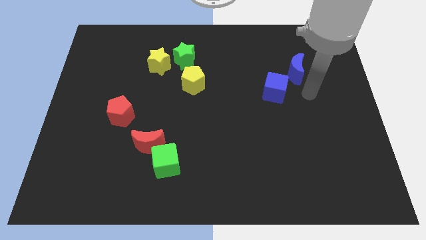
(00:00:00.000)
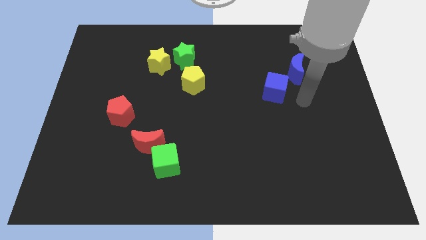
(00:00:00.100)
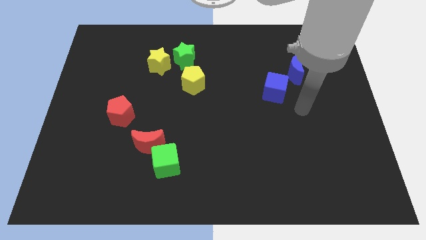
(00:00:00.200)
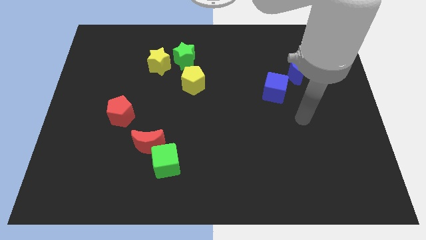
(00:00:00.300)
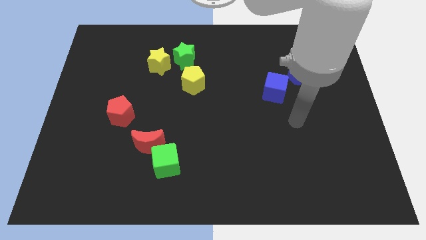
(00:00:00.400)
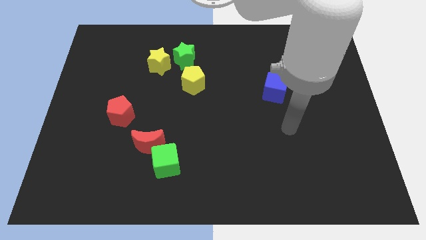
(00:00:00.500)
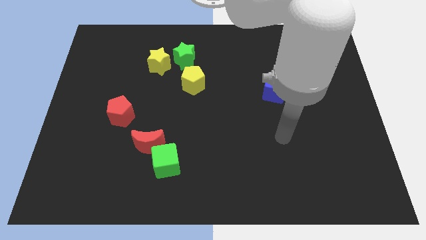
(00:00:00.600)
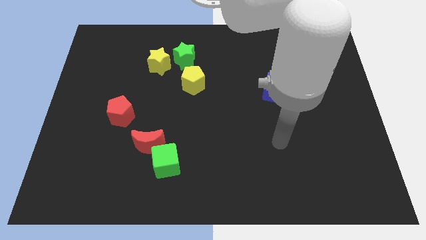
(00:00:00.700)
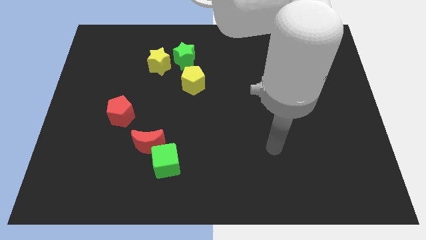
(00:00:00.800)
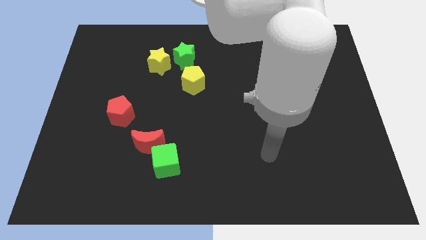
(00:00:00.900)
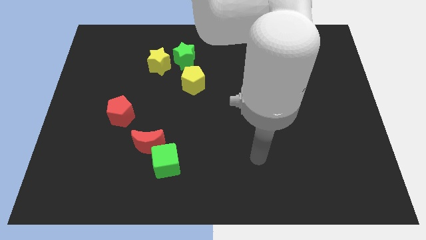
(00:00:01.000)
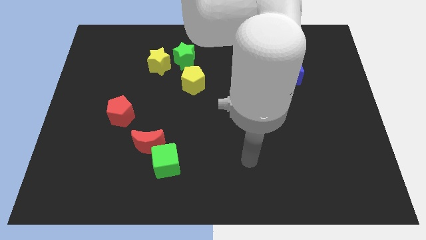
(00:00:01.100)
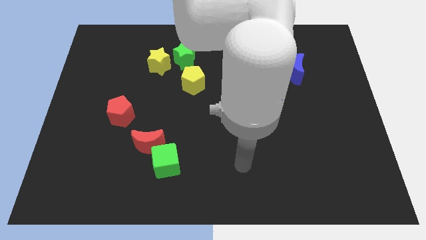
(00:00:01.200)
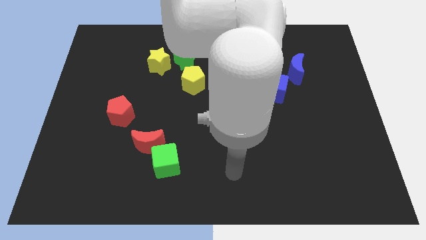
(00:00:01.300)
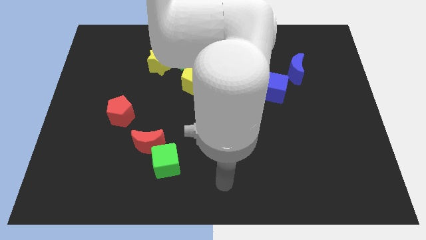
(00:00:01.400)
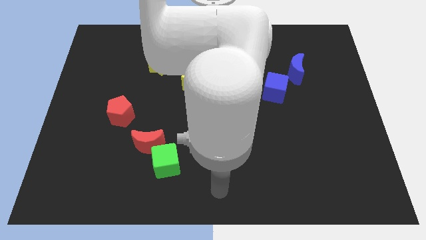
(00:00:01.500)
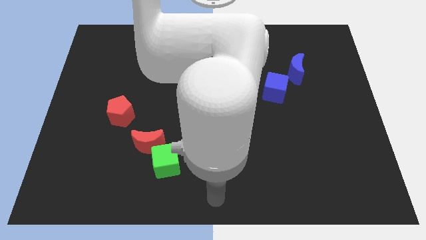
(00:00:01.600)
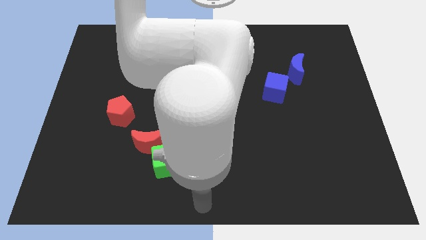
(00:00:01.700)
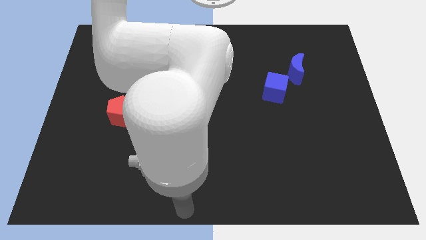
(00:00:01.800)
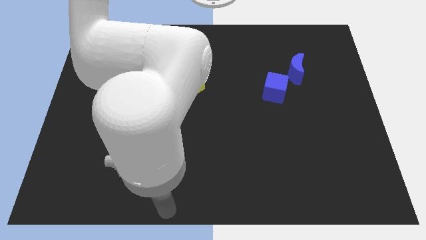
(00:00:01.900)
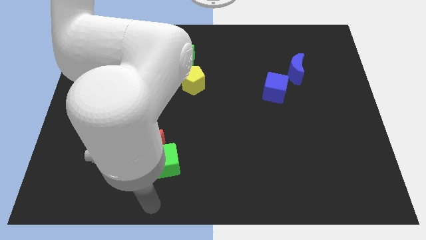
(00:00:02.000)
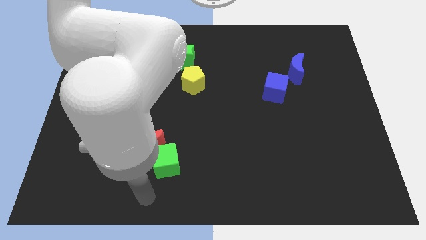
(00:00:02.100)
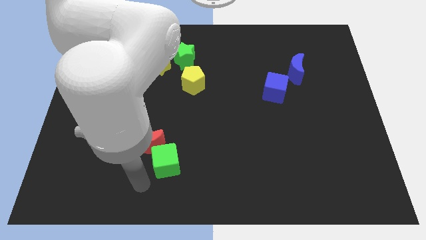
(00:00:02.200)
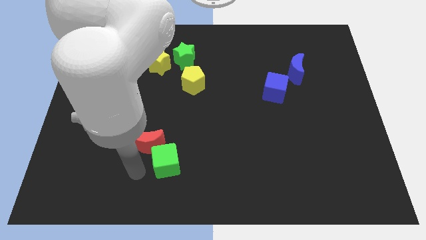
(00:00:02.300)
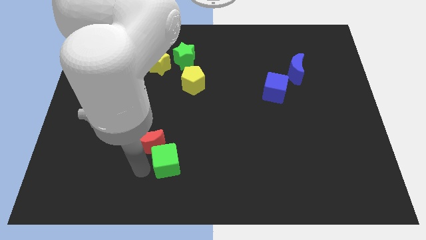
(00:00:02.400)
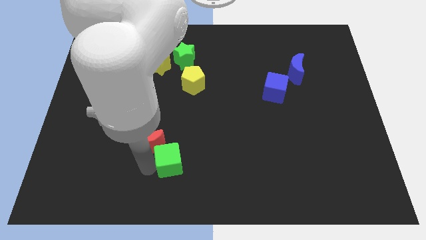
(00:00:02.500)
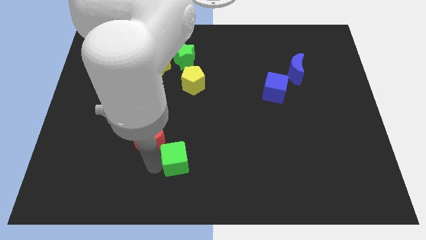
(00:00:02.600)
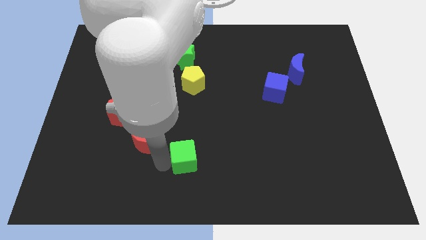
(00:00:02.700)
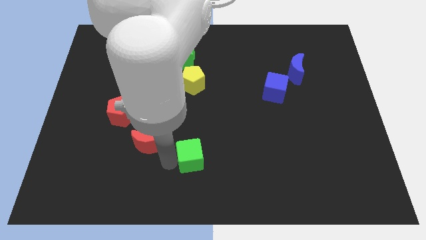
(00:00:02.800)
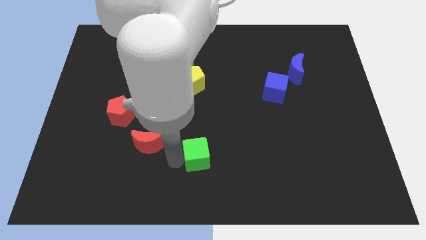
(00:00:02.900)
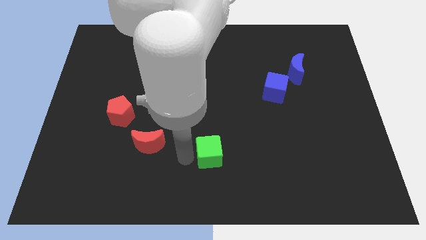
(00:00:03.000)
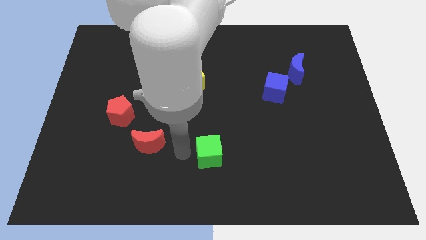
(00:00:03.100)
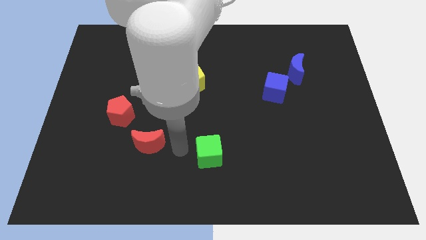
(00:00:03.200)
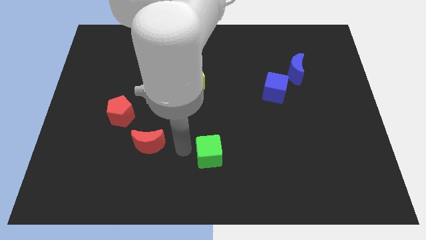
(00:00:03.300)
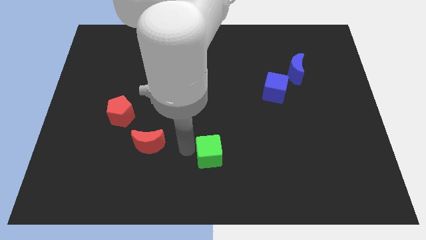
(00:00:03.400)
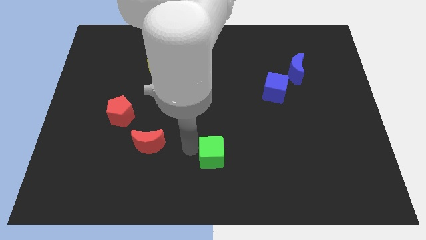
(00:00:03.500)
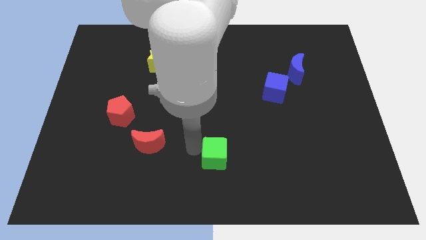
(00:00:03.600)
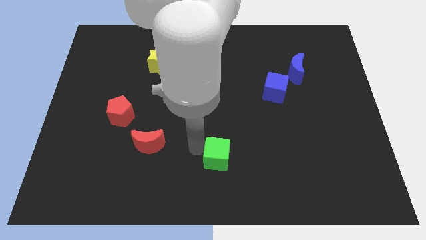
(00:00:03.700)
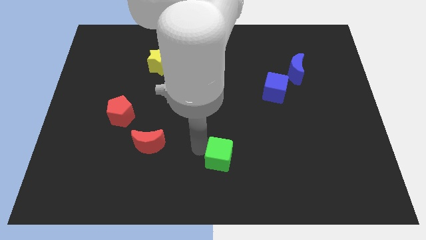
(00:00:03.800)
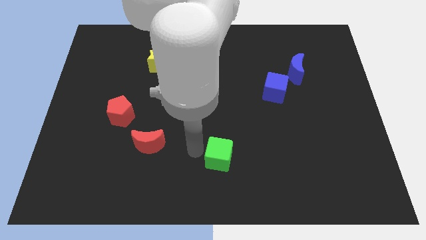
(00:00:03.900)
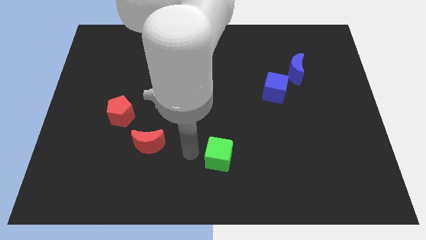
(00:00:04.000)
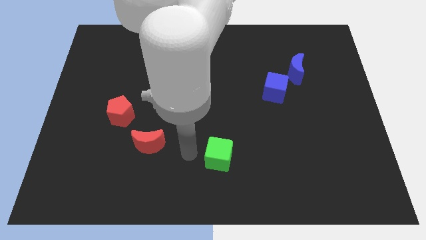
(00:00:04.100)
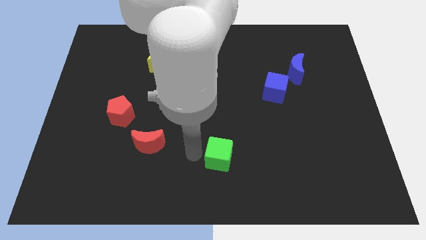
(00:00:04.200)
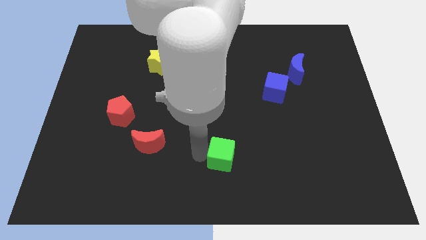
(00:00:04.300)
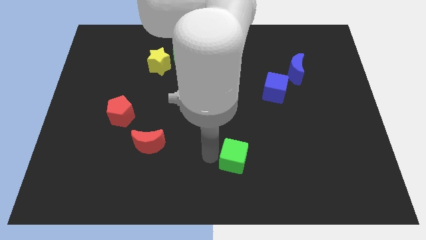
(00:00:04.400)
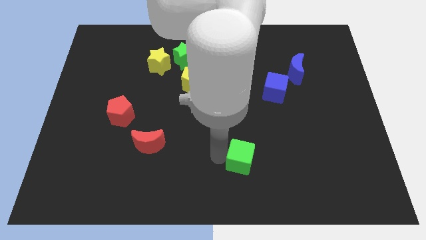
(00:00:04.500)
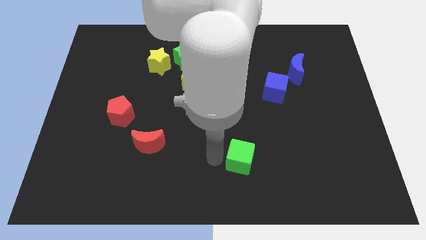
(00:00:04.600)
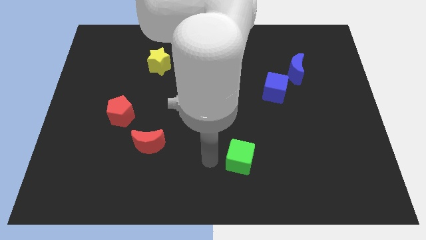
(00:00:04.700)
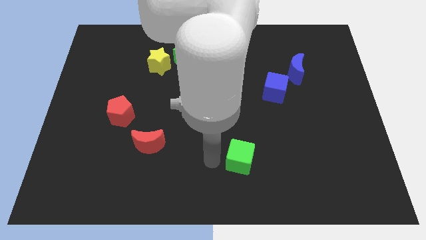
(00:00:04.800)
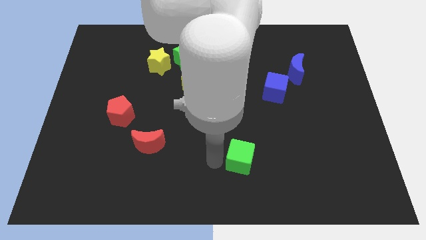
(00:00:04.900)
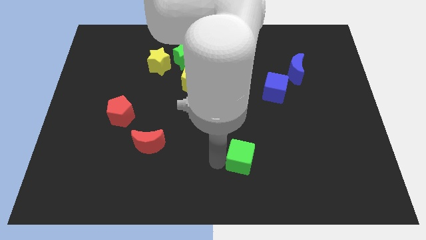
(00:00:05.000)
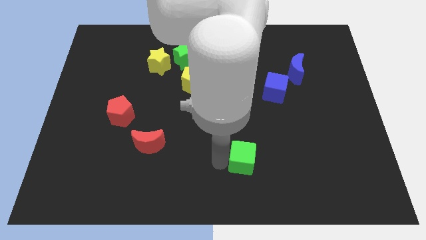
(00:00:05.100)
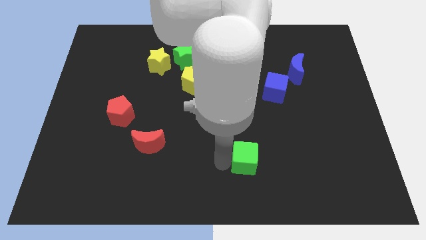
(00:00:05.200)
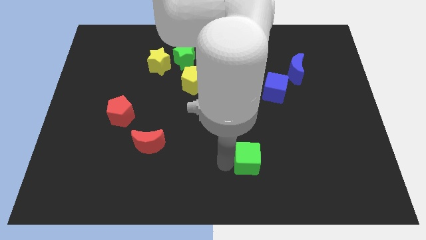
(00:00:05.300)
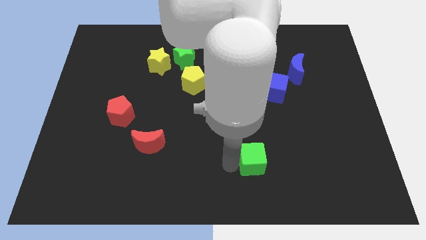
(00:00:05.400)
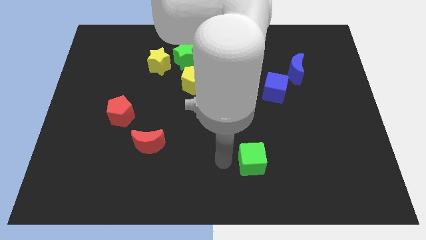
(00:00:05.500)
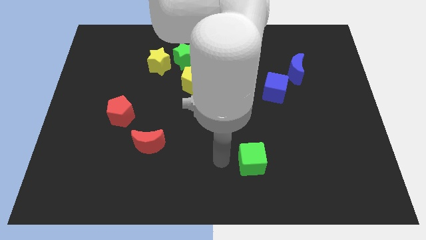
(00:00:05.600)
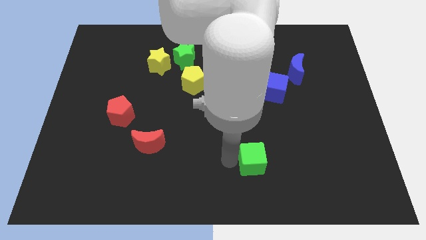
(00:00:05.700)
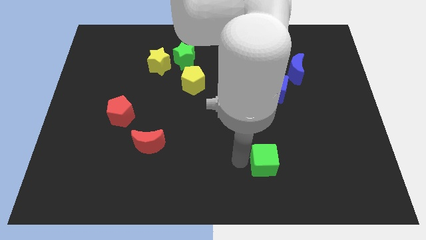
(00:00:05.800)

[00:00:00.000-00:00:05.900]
slide the green cube right

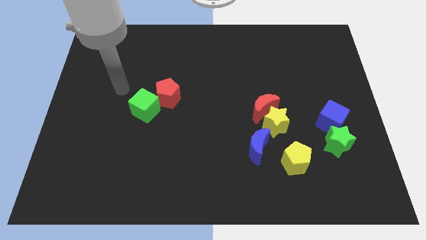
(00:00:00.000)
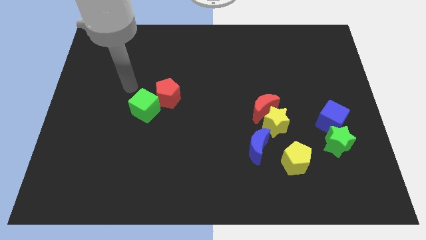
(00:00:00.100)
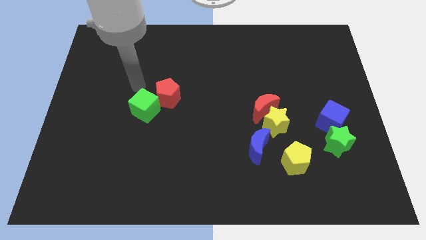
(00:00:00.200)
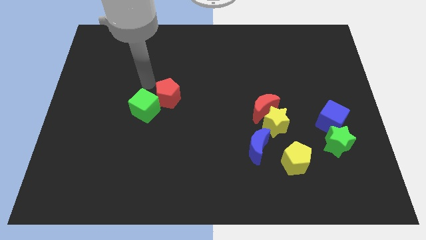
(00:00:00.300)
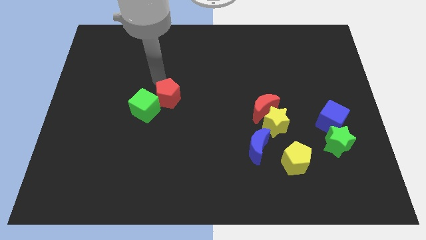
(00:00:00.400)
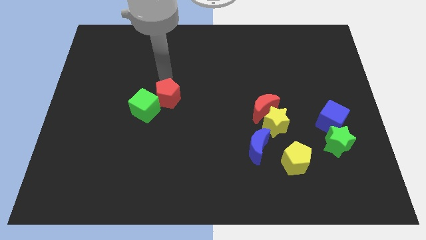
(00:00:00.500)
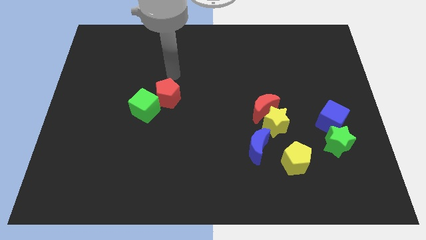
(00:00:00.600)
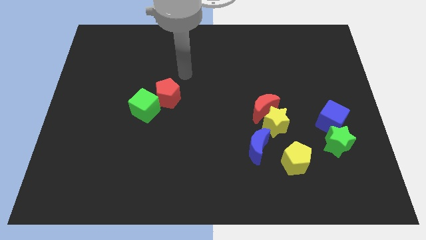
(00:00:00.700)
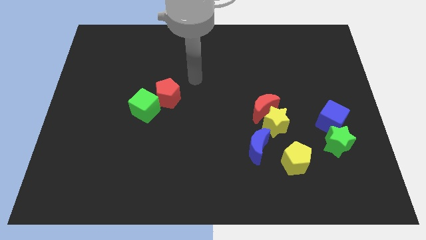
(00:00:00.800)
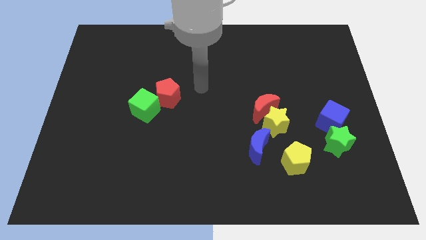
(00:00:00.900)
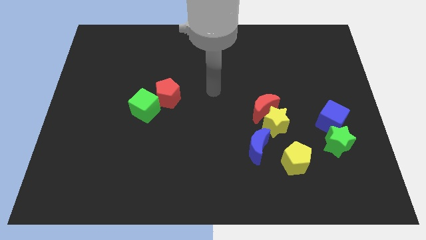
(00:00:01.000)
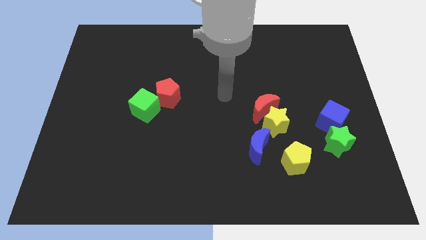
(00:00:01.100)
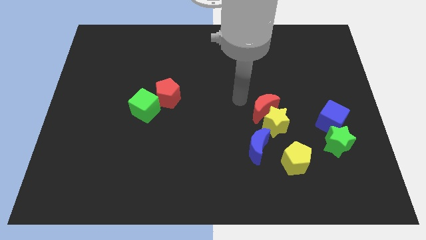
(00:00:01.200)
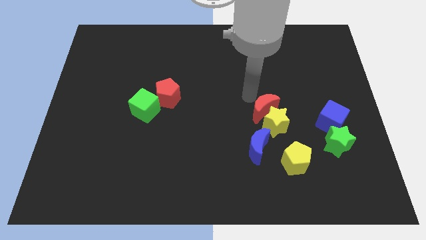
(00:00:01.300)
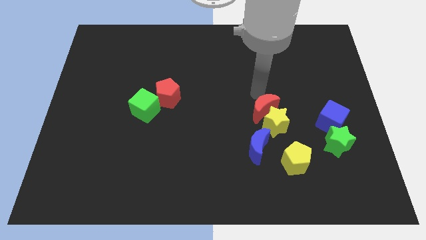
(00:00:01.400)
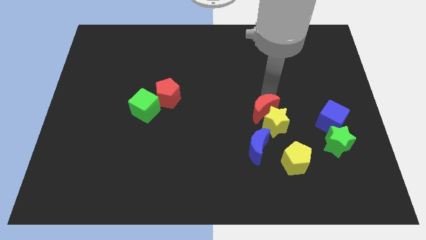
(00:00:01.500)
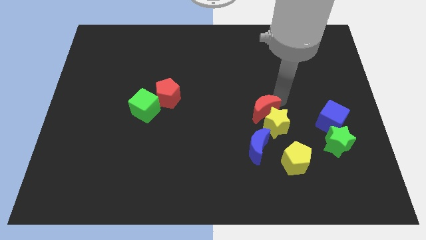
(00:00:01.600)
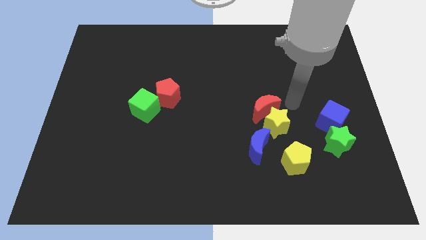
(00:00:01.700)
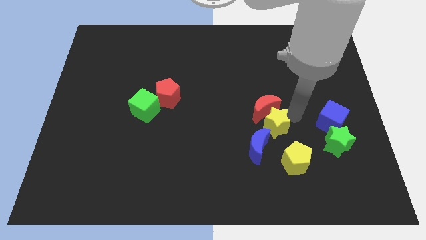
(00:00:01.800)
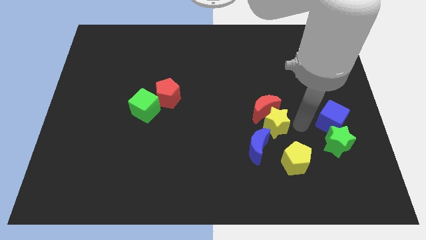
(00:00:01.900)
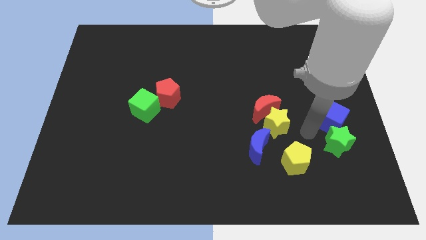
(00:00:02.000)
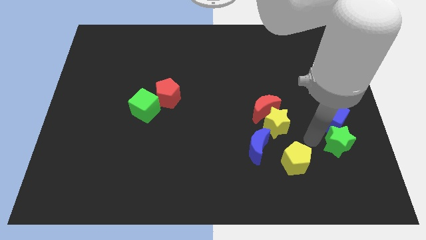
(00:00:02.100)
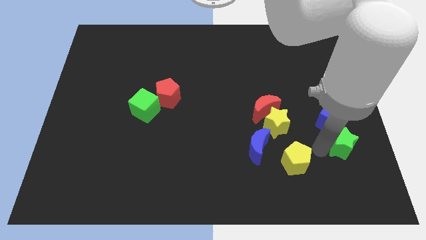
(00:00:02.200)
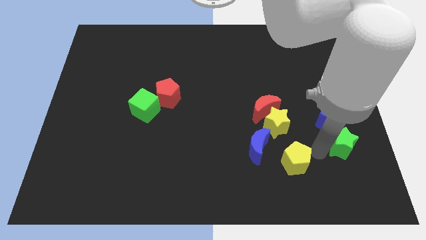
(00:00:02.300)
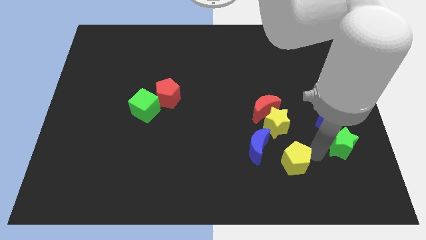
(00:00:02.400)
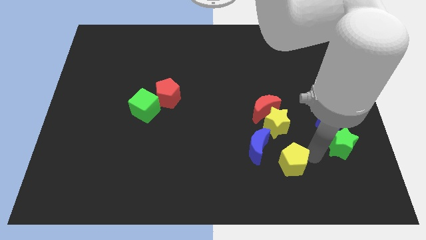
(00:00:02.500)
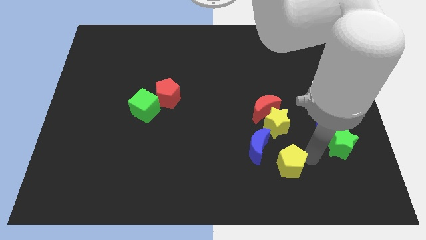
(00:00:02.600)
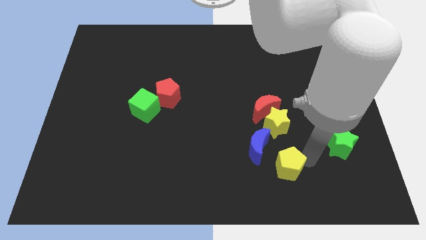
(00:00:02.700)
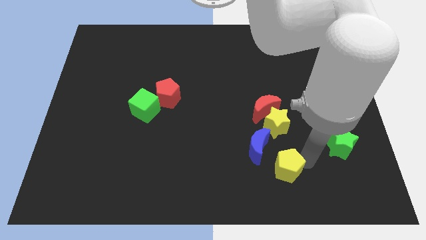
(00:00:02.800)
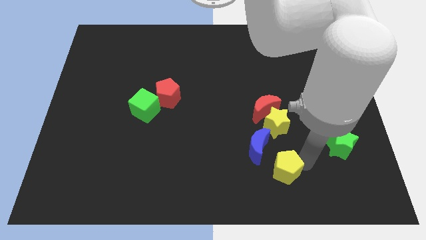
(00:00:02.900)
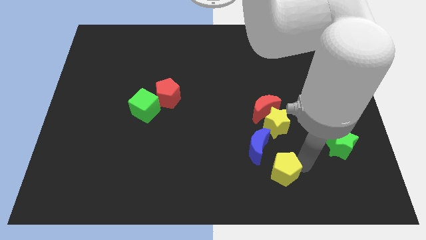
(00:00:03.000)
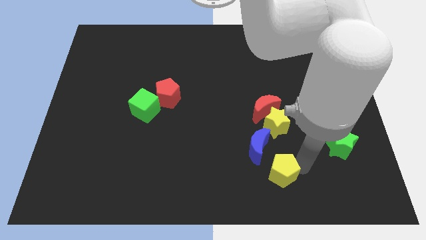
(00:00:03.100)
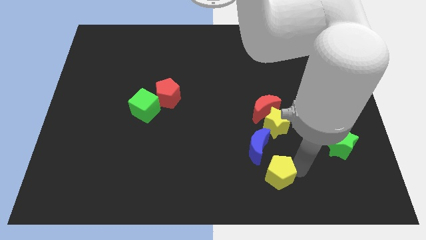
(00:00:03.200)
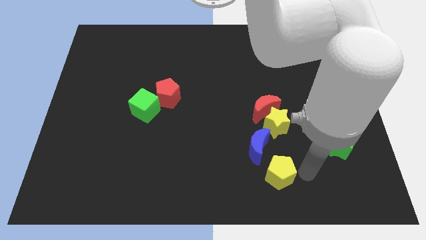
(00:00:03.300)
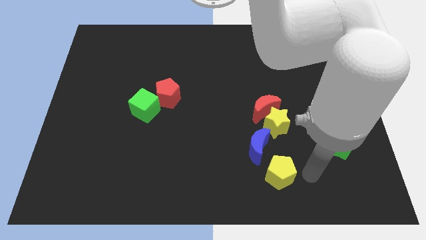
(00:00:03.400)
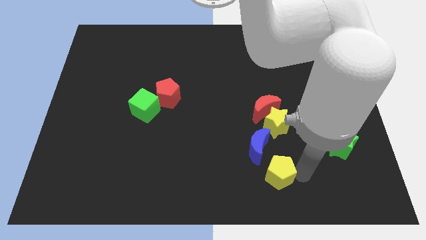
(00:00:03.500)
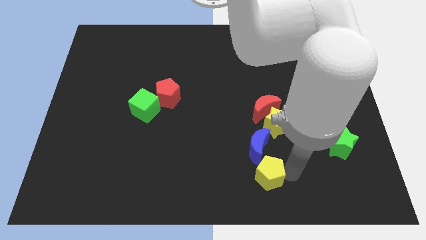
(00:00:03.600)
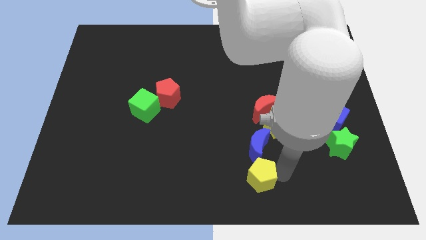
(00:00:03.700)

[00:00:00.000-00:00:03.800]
slide the yellow pentagon a little left
